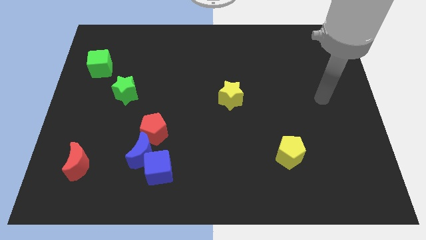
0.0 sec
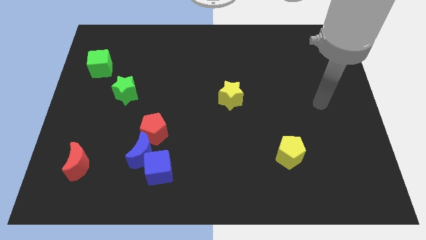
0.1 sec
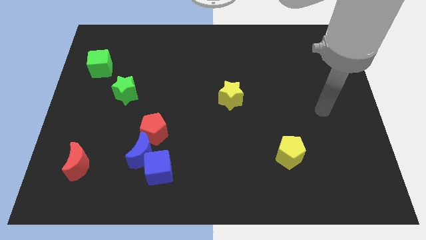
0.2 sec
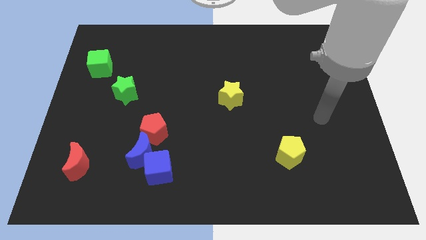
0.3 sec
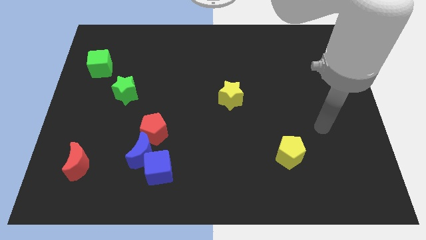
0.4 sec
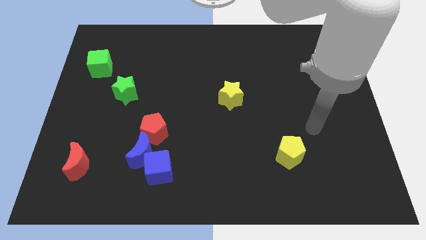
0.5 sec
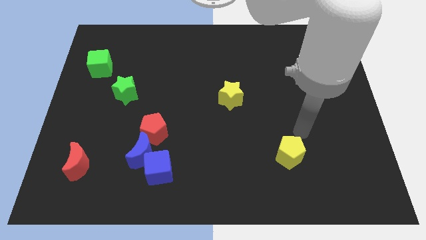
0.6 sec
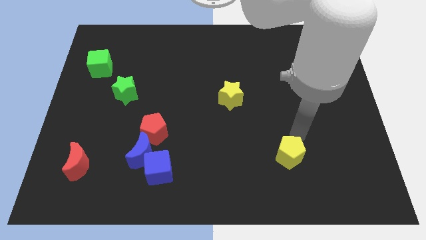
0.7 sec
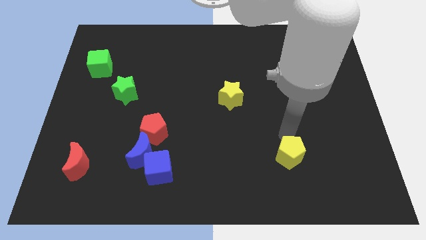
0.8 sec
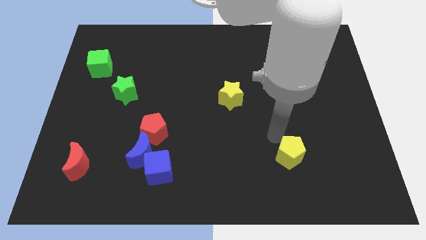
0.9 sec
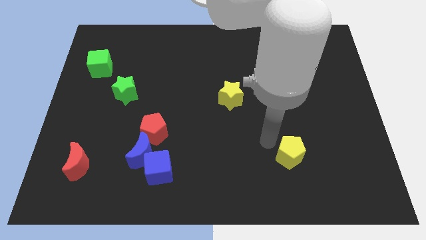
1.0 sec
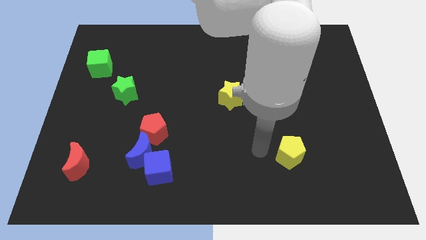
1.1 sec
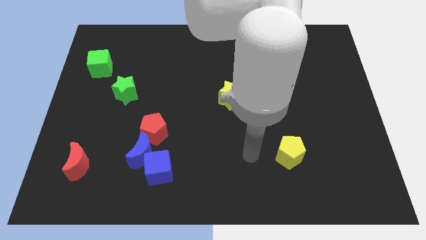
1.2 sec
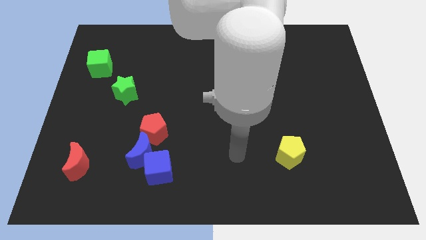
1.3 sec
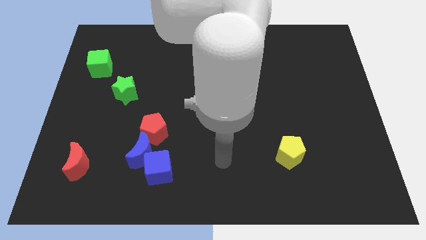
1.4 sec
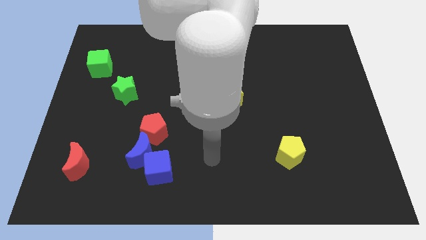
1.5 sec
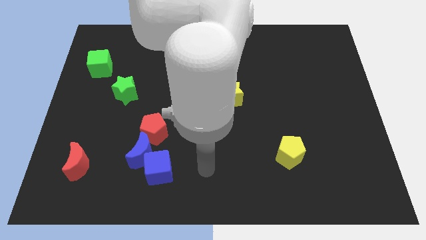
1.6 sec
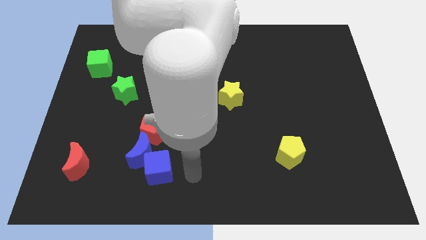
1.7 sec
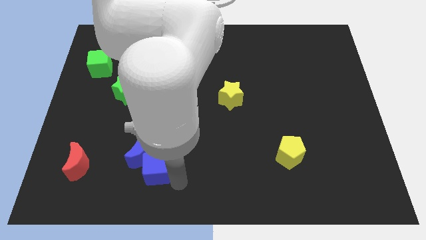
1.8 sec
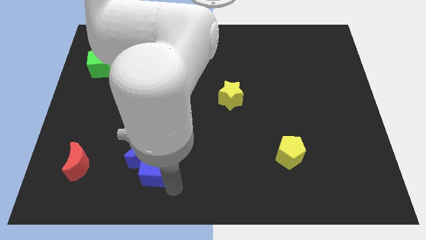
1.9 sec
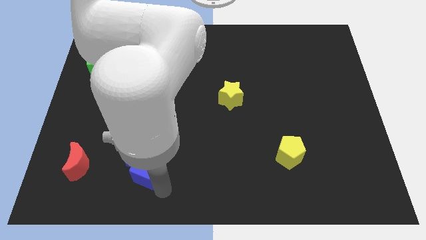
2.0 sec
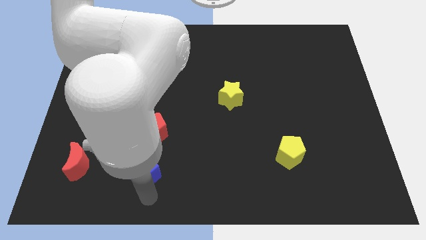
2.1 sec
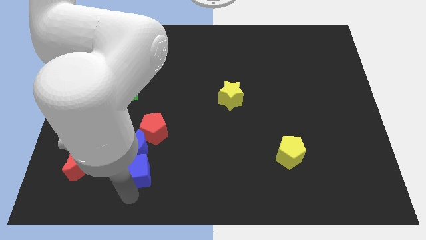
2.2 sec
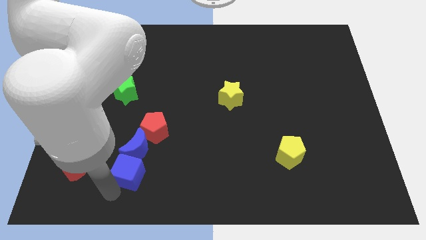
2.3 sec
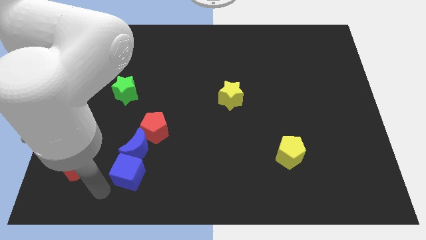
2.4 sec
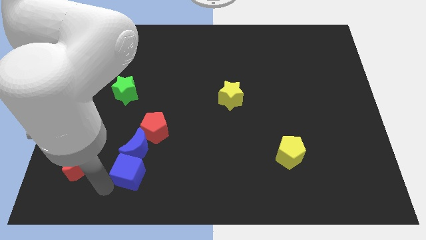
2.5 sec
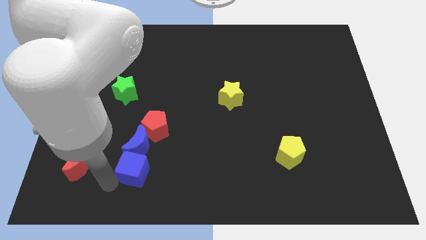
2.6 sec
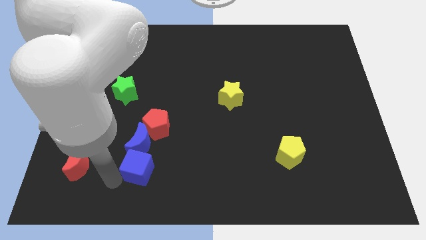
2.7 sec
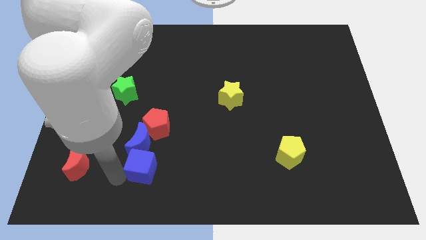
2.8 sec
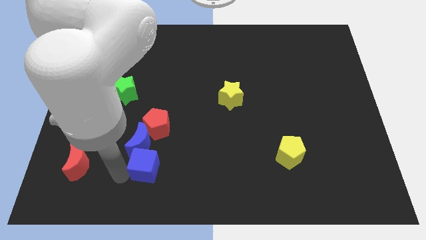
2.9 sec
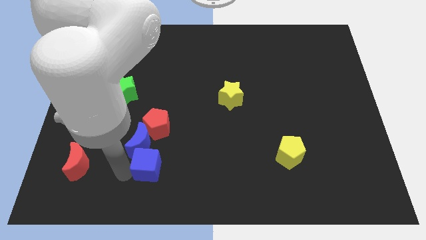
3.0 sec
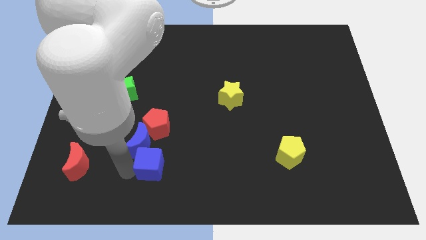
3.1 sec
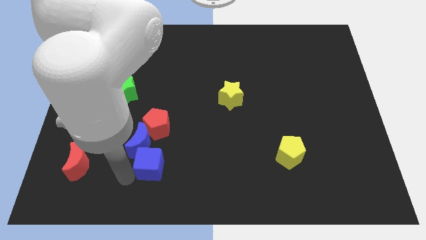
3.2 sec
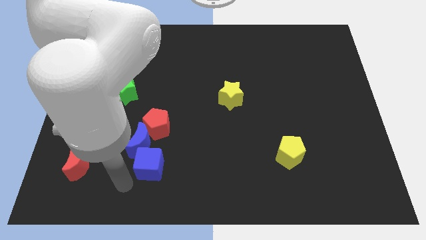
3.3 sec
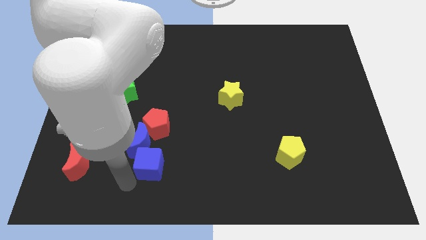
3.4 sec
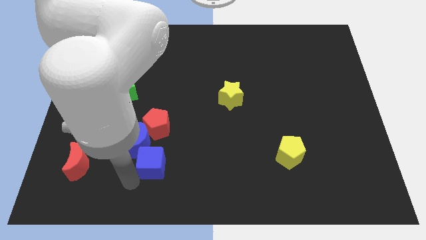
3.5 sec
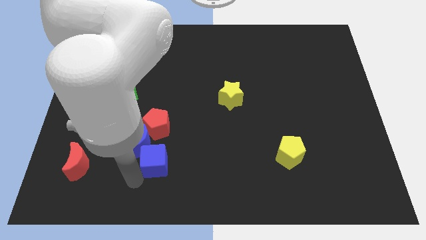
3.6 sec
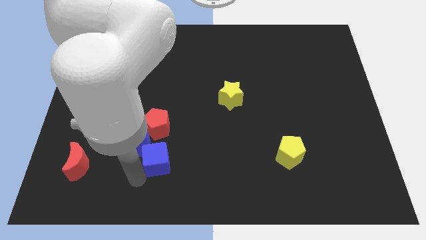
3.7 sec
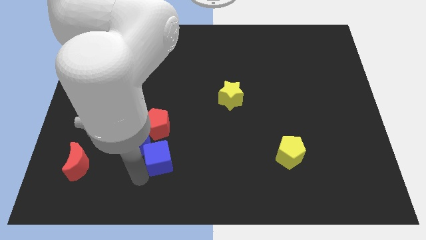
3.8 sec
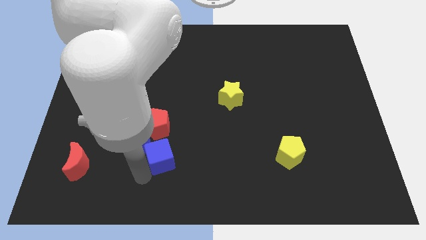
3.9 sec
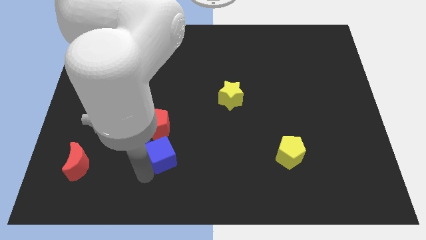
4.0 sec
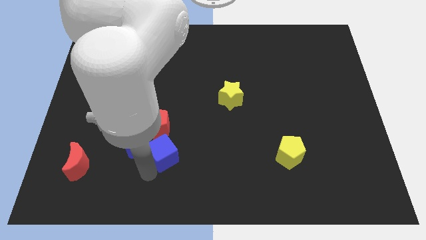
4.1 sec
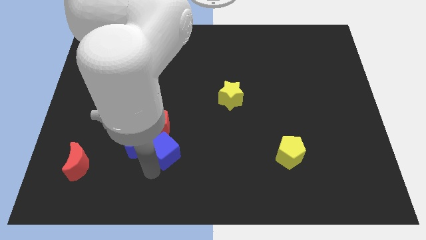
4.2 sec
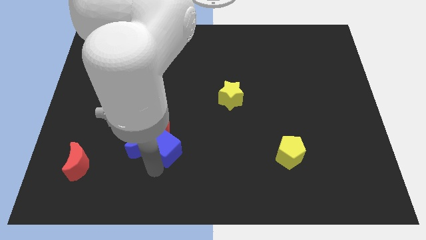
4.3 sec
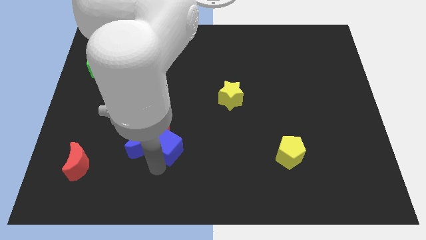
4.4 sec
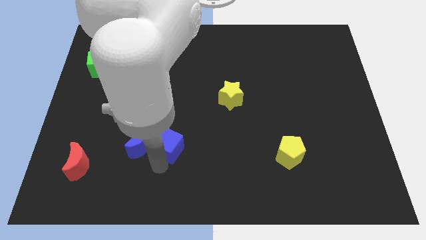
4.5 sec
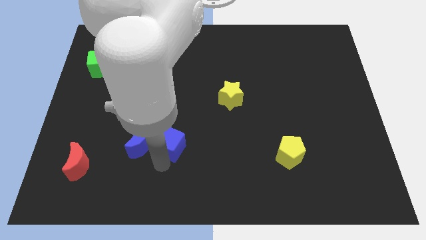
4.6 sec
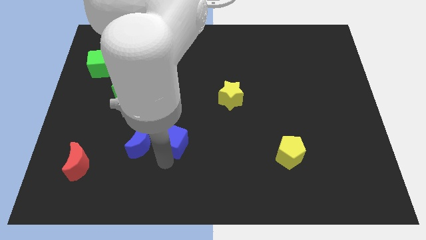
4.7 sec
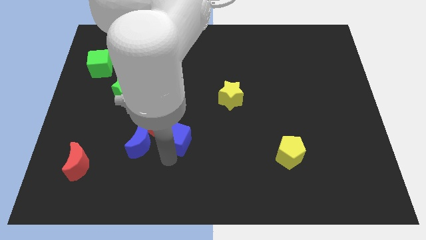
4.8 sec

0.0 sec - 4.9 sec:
push the blue cube slightly upwards

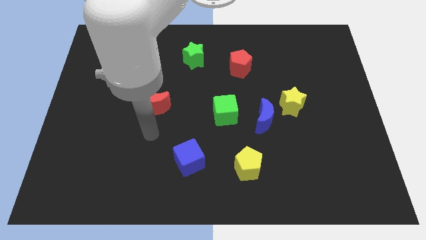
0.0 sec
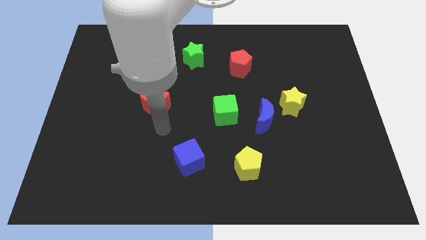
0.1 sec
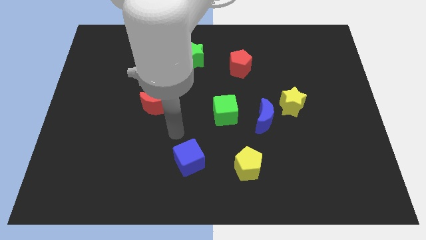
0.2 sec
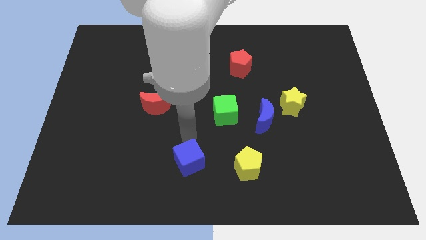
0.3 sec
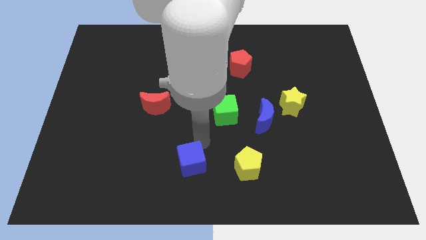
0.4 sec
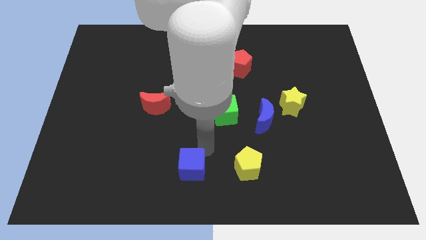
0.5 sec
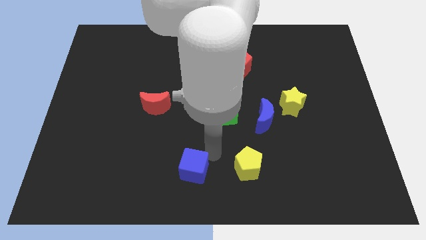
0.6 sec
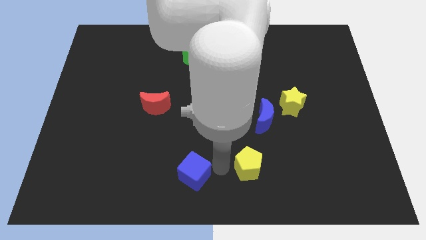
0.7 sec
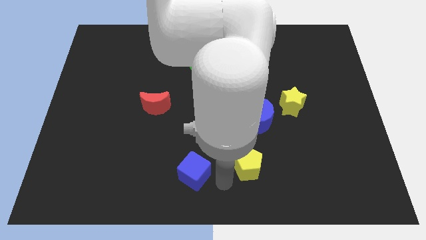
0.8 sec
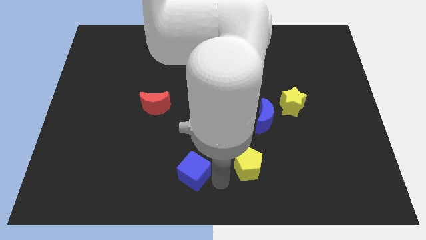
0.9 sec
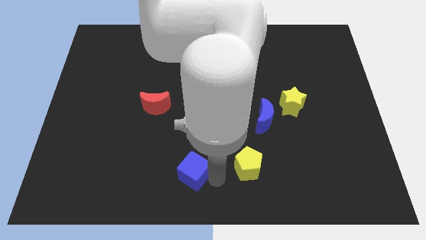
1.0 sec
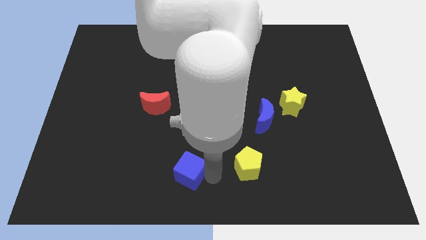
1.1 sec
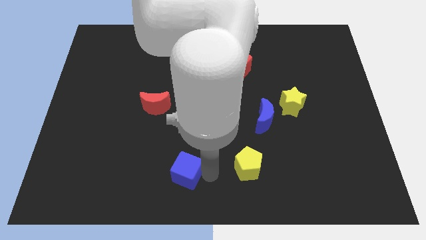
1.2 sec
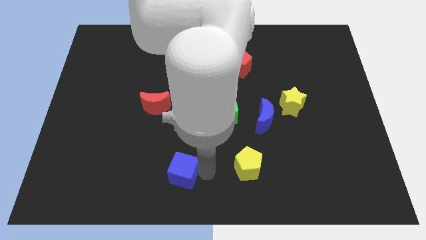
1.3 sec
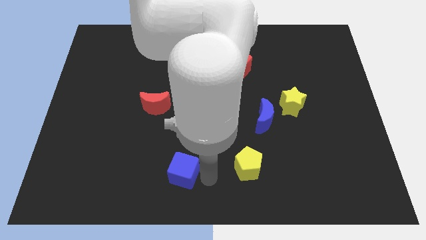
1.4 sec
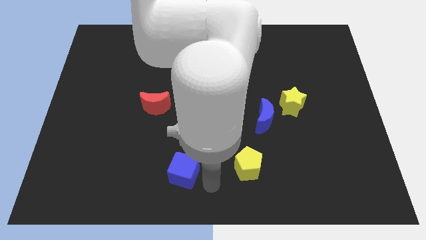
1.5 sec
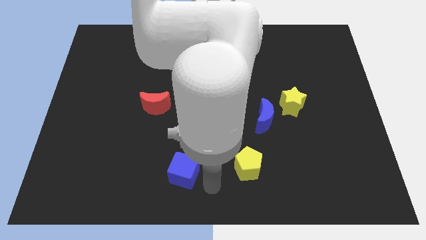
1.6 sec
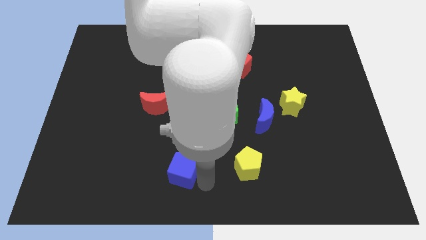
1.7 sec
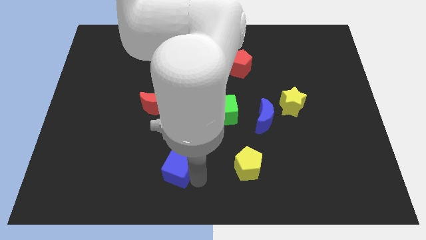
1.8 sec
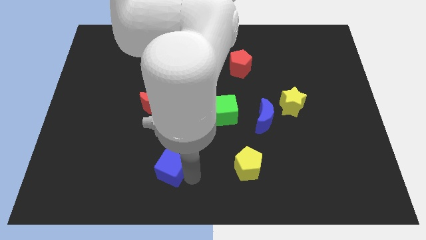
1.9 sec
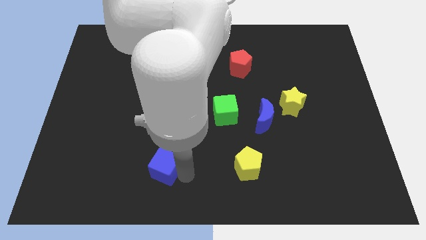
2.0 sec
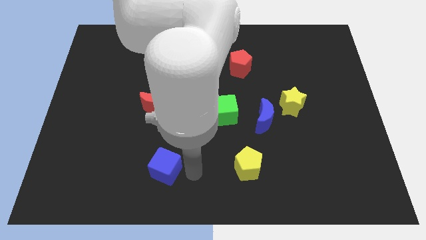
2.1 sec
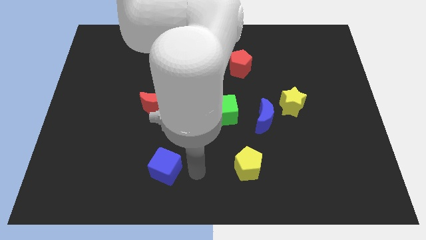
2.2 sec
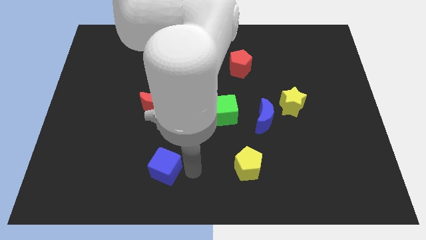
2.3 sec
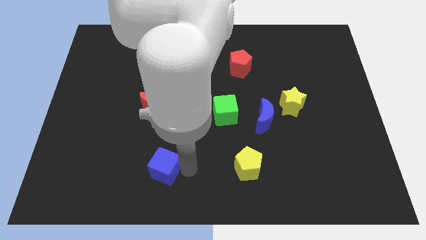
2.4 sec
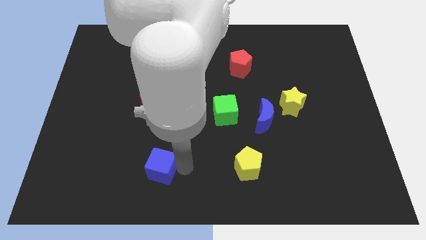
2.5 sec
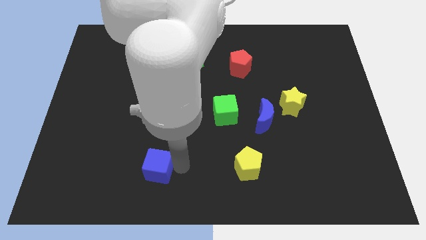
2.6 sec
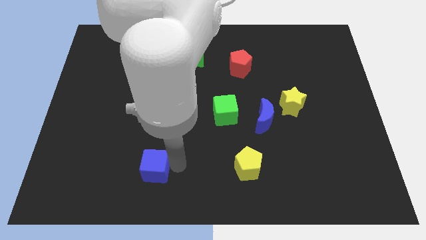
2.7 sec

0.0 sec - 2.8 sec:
move the blue cube left a little
